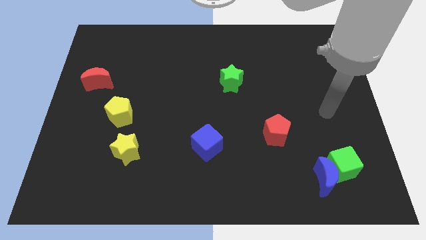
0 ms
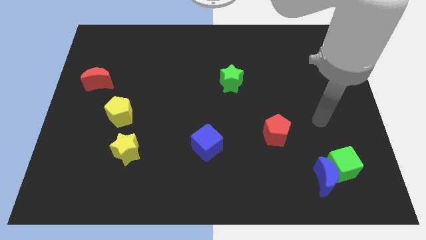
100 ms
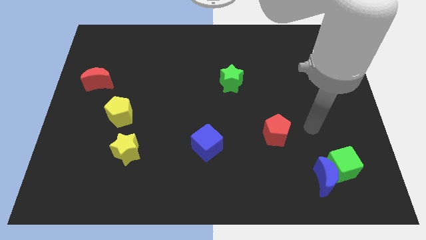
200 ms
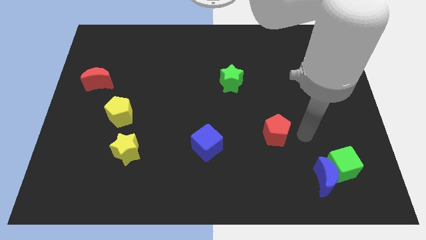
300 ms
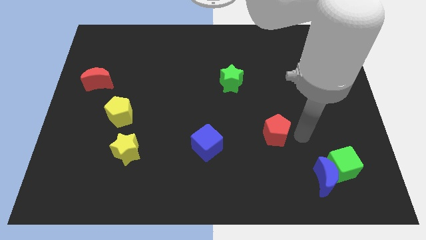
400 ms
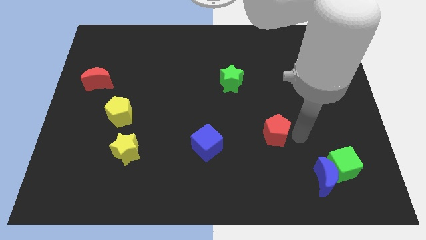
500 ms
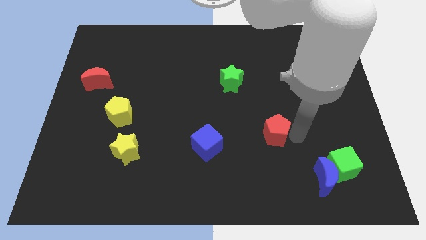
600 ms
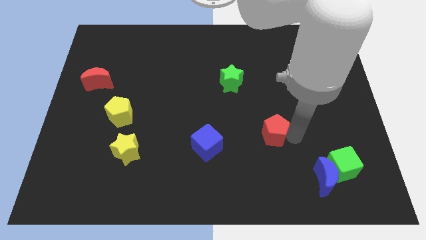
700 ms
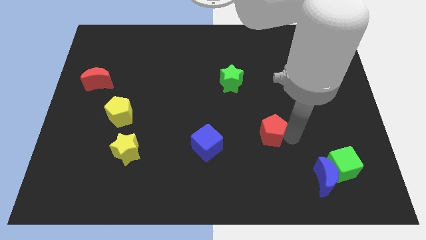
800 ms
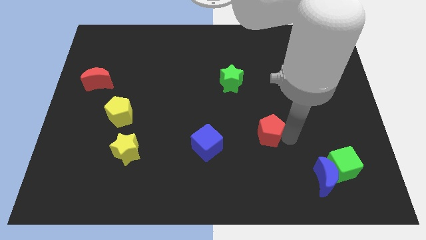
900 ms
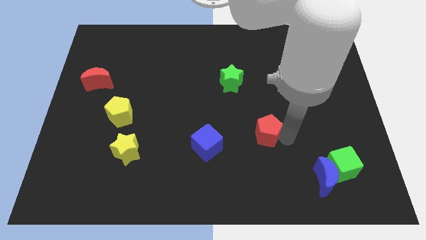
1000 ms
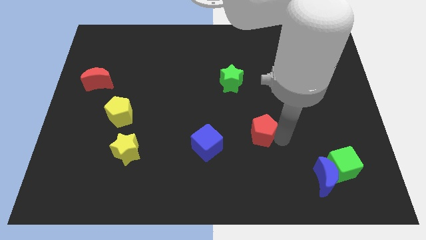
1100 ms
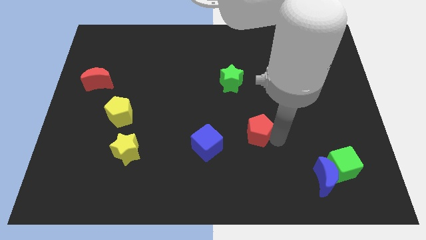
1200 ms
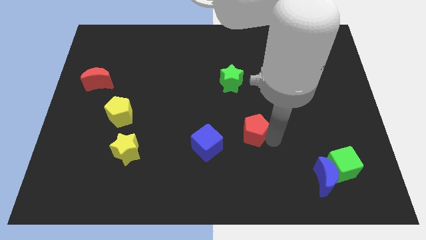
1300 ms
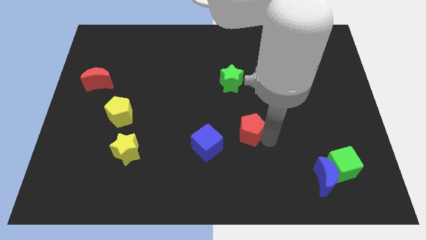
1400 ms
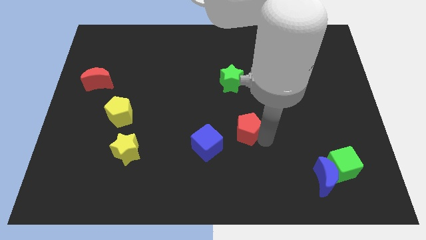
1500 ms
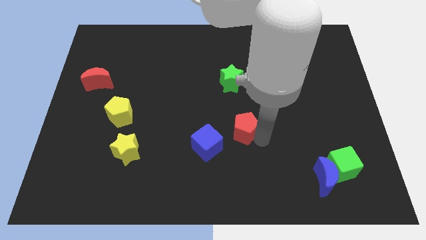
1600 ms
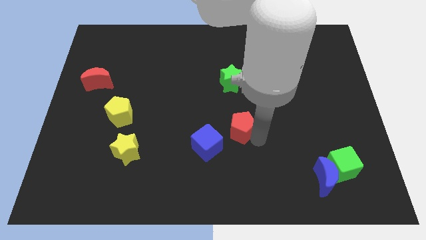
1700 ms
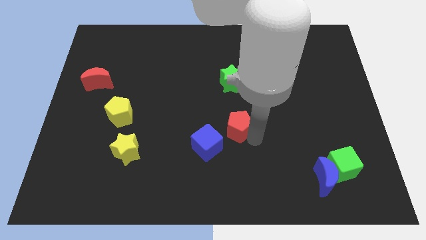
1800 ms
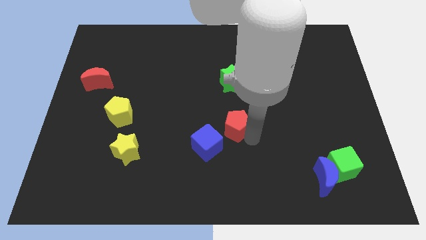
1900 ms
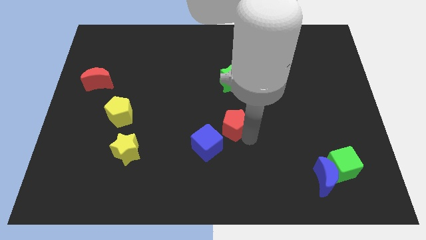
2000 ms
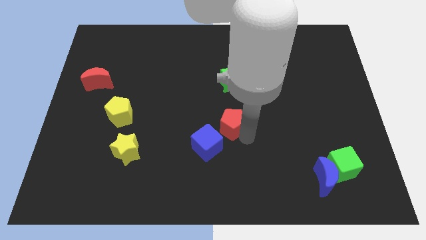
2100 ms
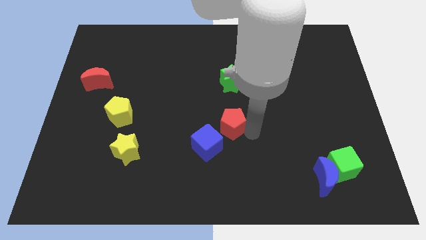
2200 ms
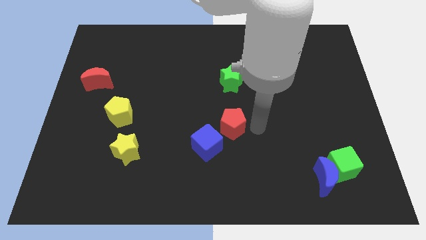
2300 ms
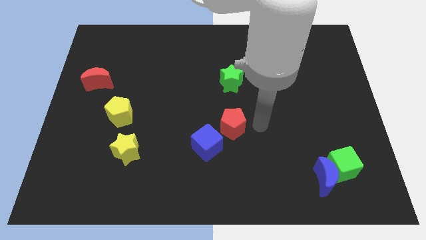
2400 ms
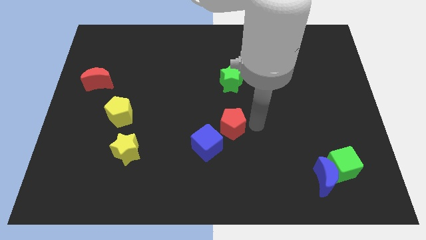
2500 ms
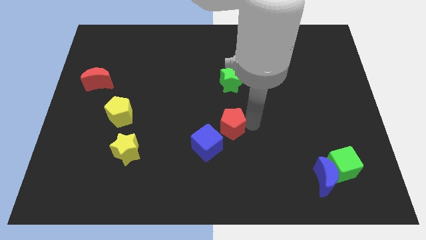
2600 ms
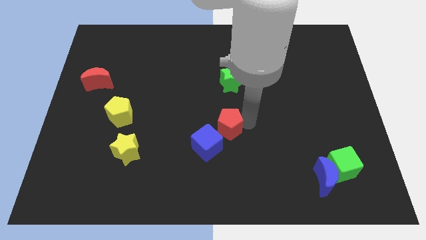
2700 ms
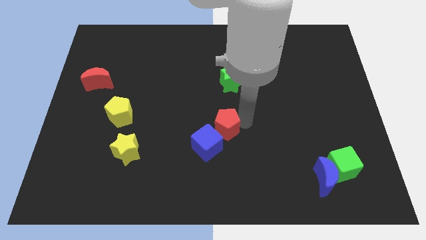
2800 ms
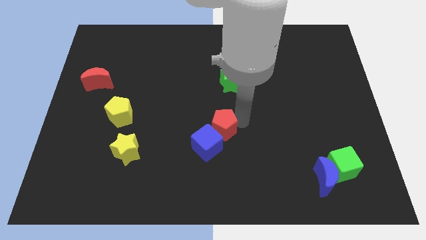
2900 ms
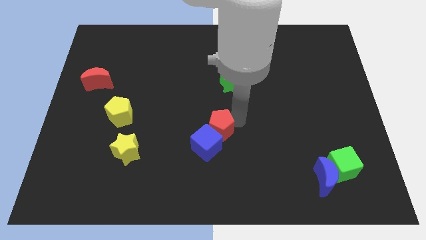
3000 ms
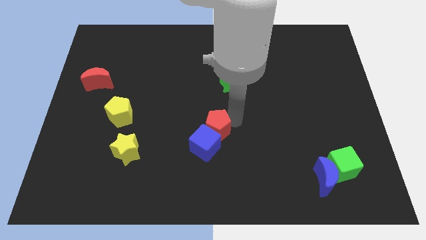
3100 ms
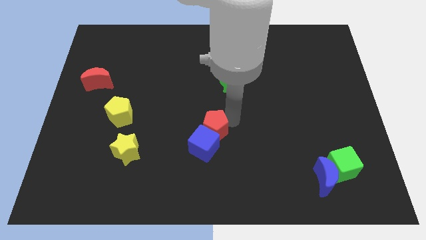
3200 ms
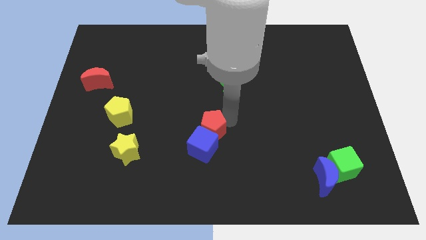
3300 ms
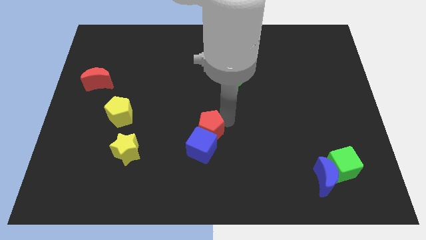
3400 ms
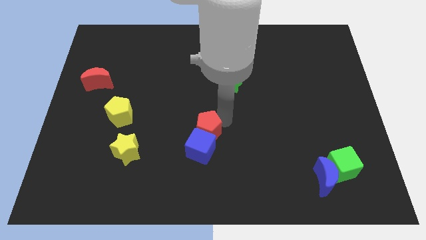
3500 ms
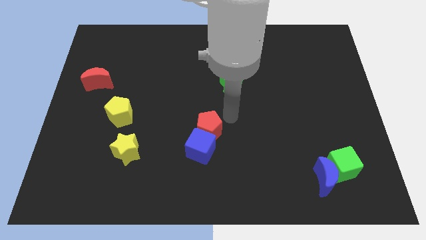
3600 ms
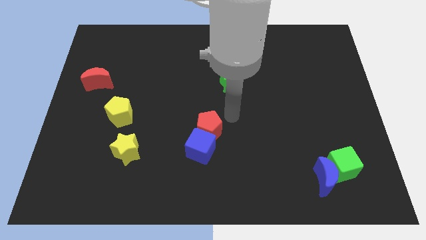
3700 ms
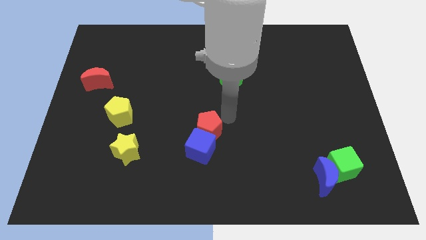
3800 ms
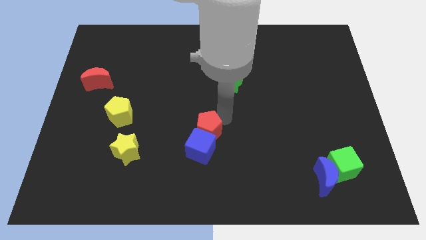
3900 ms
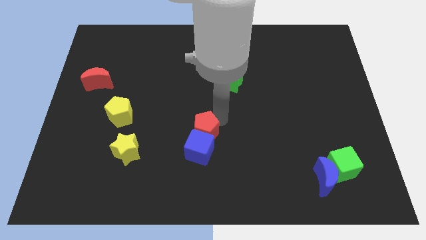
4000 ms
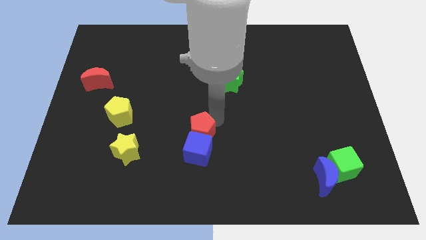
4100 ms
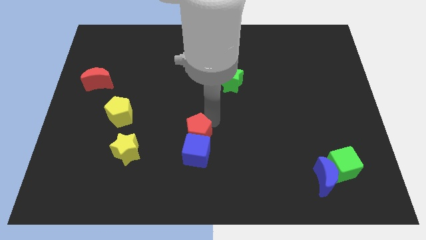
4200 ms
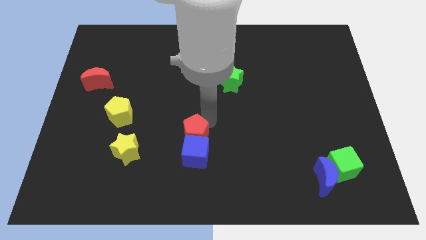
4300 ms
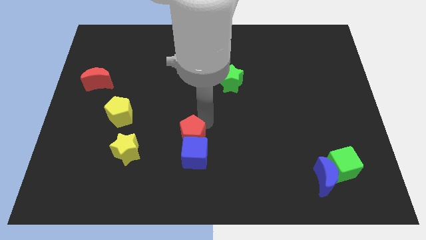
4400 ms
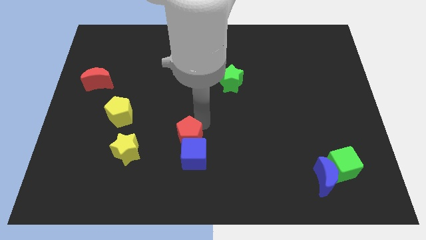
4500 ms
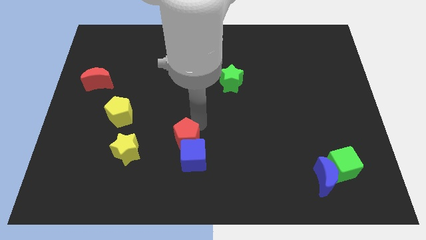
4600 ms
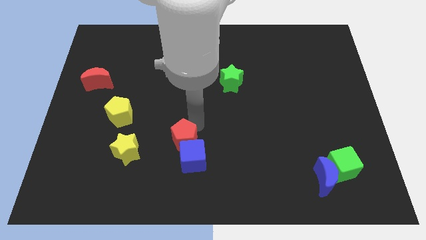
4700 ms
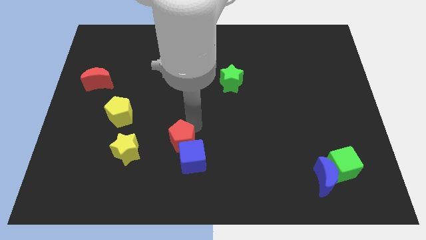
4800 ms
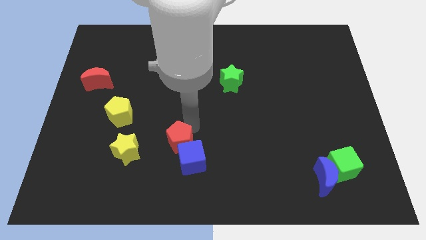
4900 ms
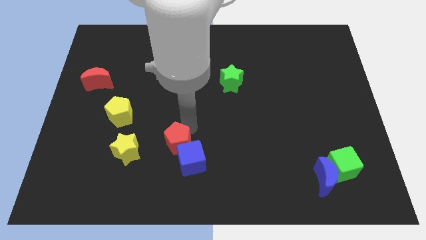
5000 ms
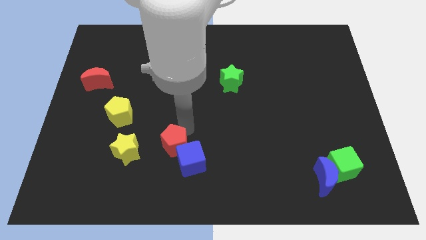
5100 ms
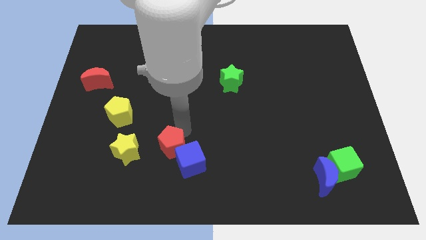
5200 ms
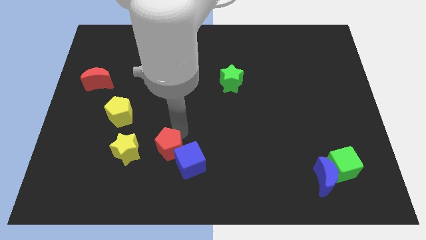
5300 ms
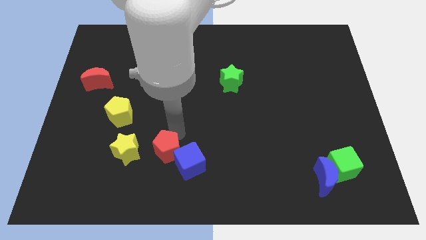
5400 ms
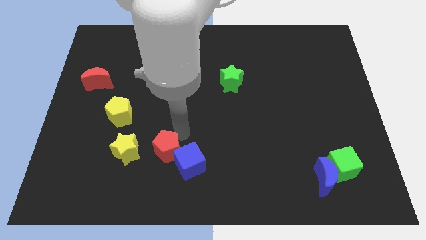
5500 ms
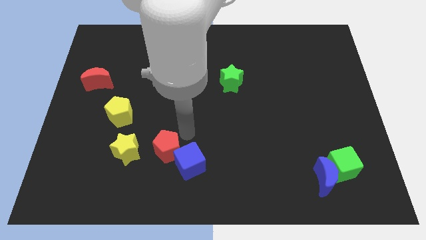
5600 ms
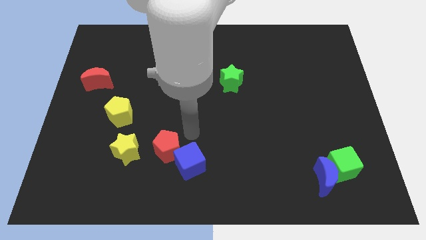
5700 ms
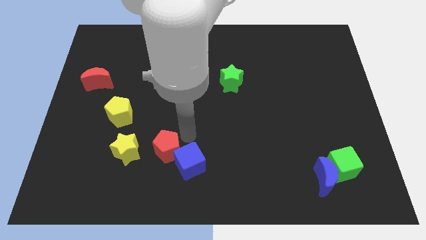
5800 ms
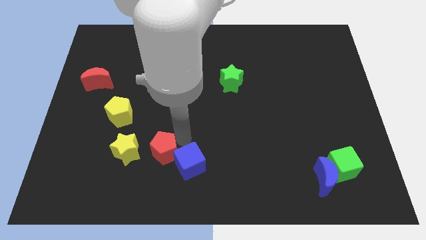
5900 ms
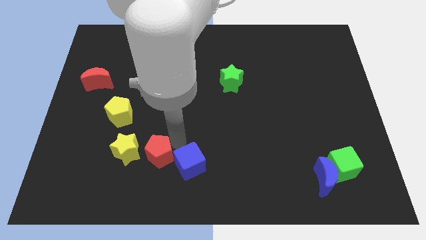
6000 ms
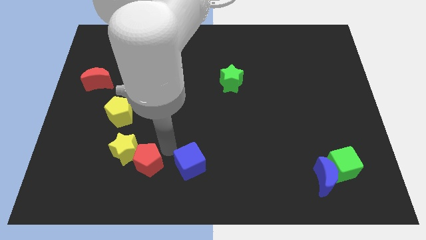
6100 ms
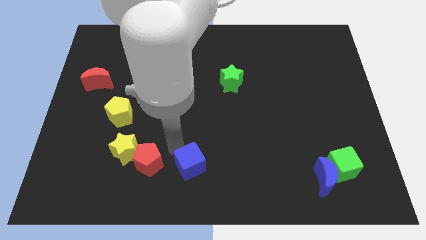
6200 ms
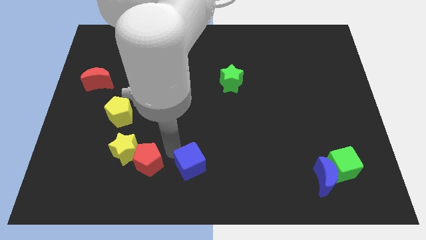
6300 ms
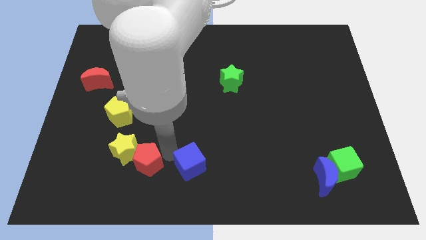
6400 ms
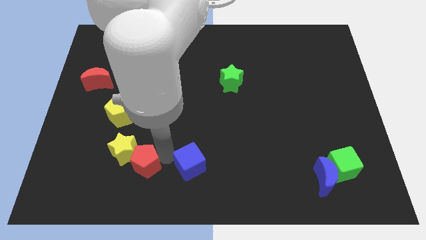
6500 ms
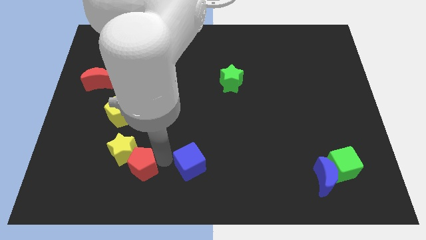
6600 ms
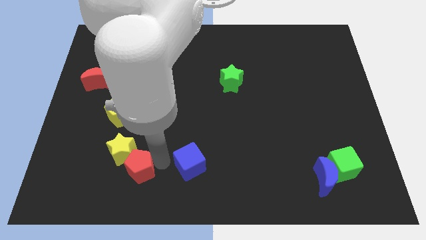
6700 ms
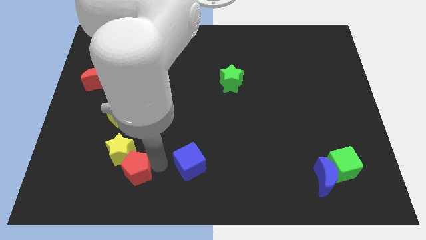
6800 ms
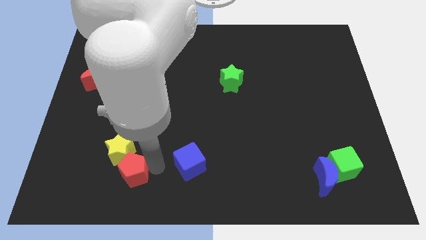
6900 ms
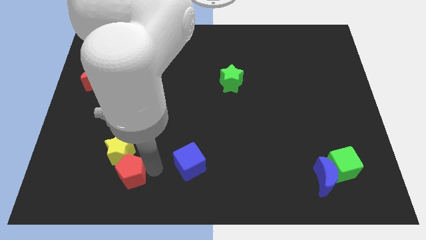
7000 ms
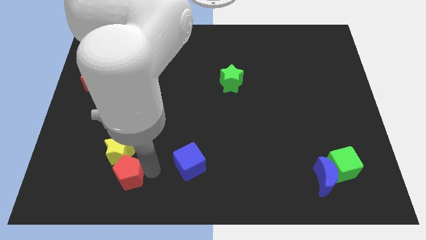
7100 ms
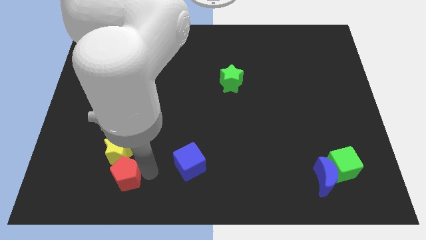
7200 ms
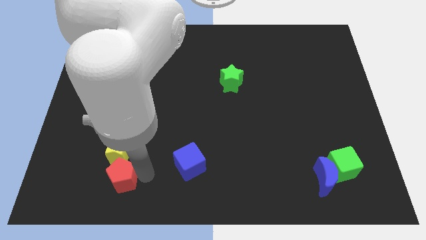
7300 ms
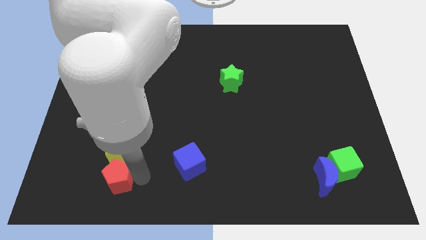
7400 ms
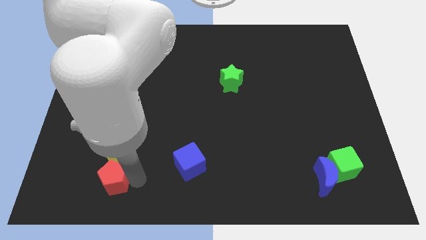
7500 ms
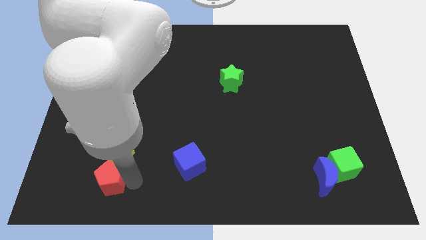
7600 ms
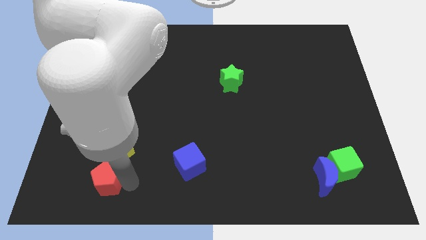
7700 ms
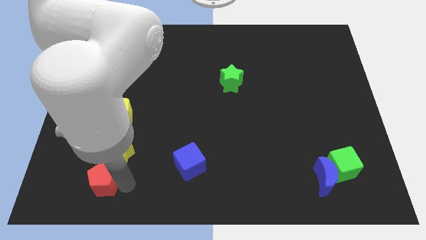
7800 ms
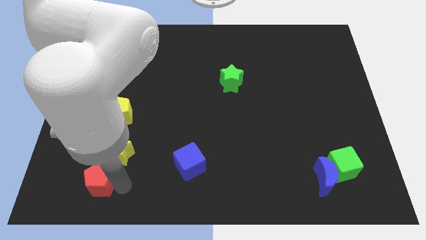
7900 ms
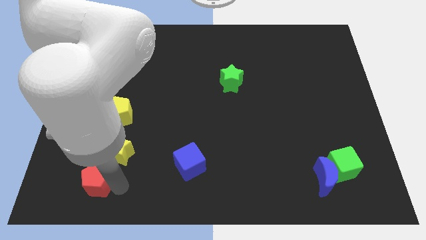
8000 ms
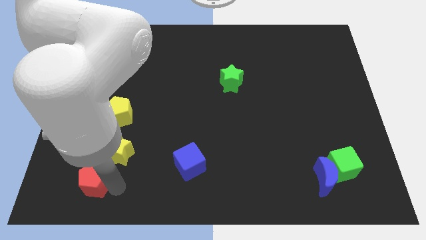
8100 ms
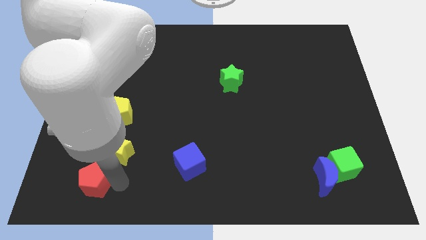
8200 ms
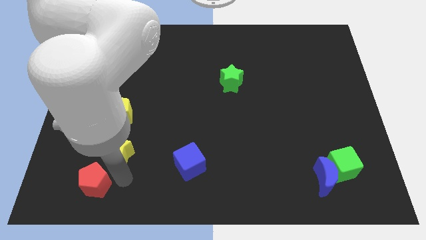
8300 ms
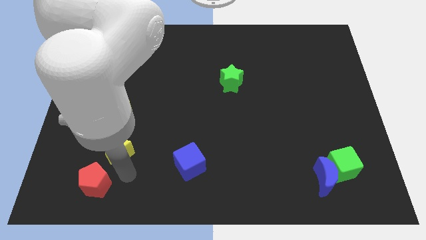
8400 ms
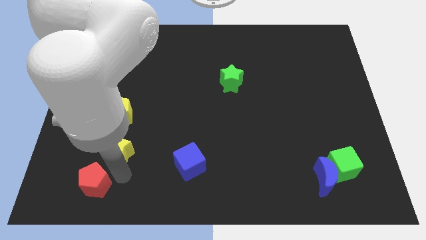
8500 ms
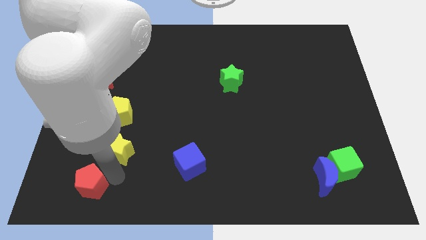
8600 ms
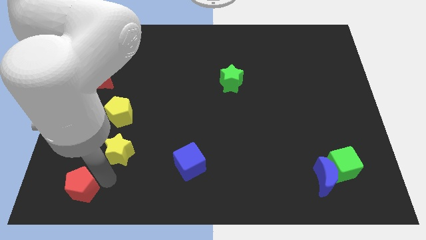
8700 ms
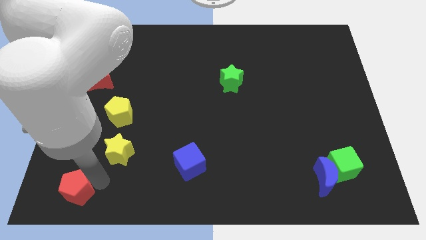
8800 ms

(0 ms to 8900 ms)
slide the red pentagon to the lower left corner
